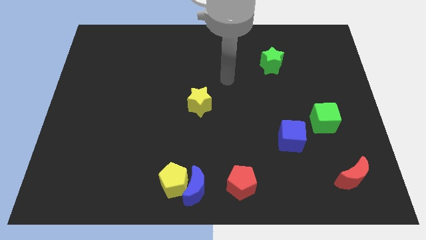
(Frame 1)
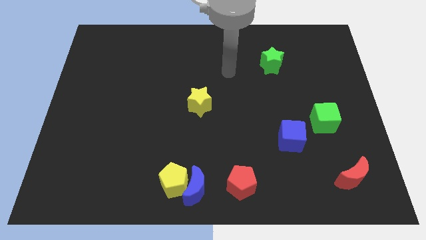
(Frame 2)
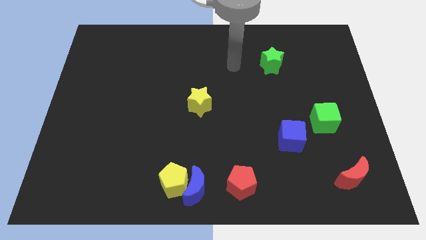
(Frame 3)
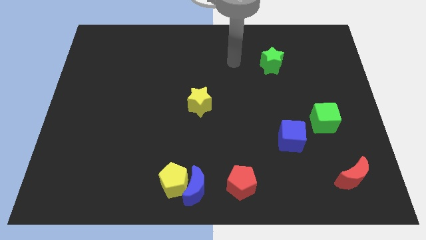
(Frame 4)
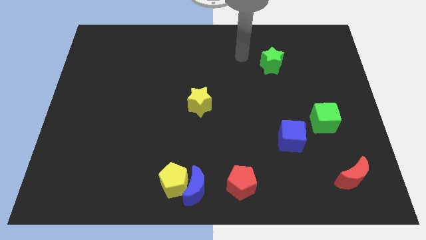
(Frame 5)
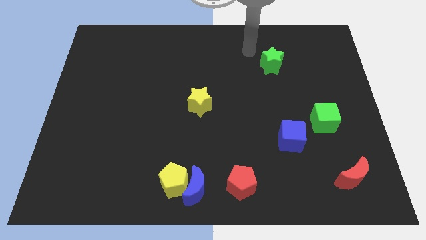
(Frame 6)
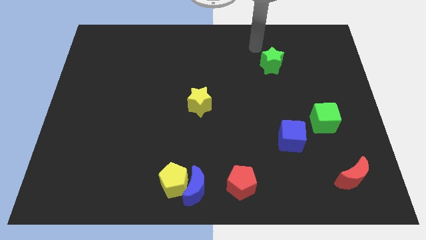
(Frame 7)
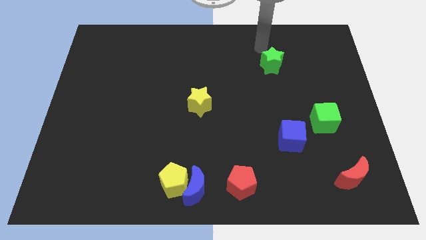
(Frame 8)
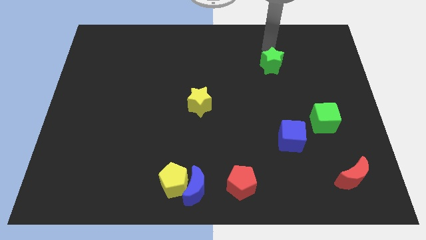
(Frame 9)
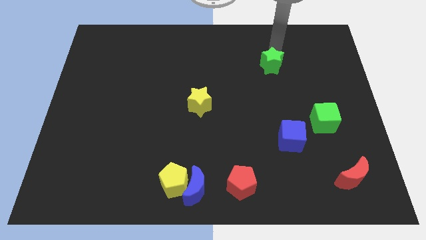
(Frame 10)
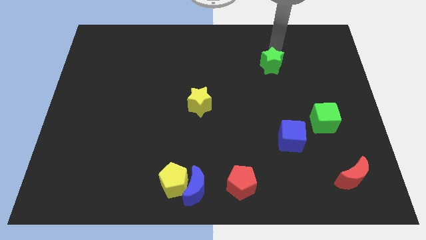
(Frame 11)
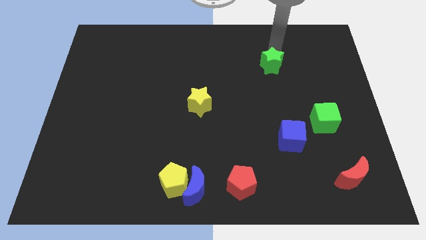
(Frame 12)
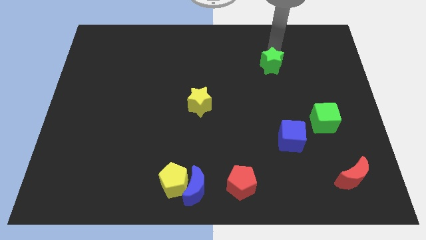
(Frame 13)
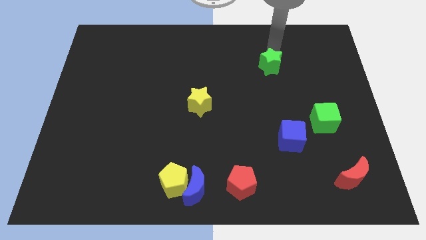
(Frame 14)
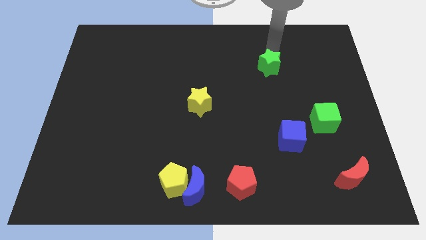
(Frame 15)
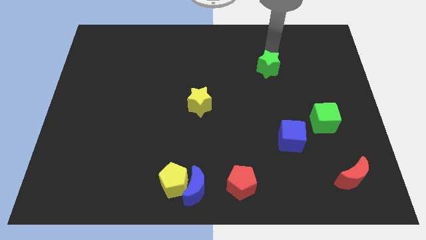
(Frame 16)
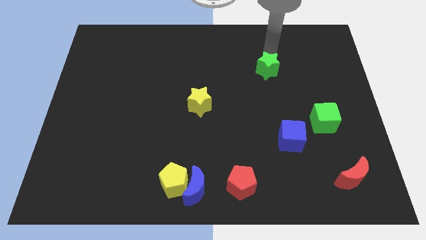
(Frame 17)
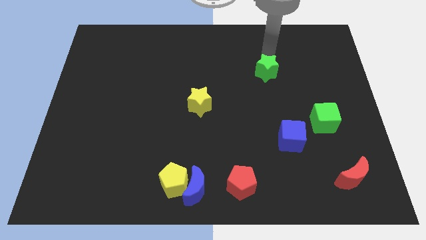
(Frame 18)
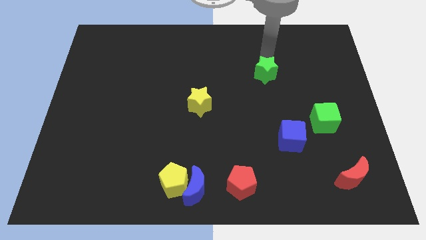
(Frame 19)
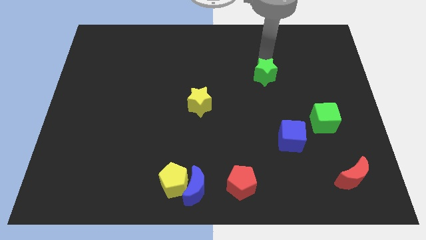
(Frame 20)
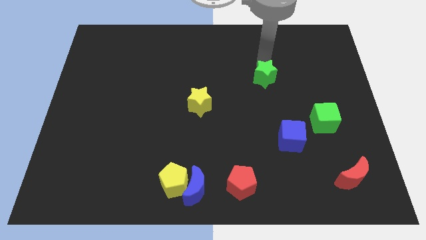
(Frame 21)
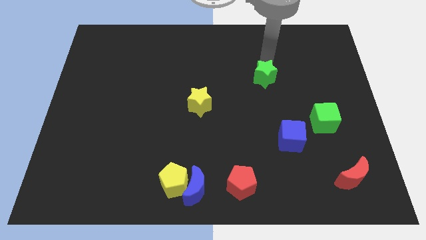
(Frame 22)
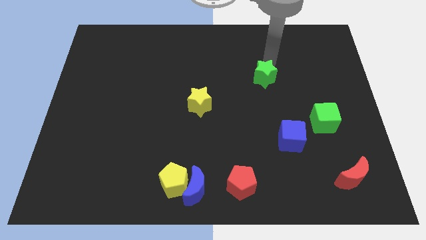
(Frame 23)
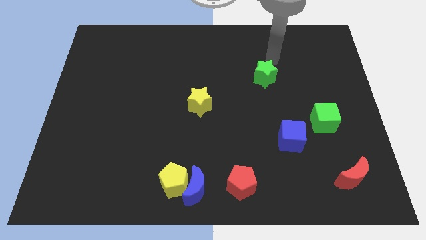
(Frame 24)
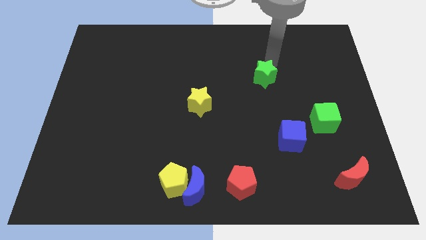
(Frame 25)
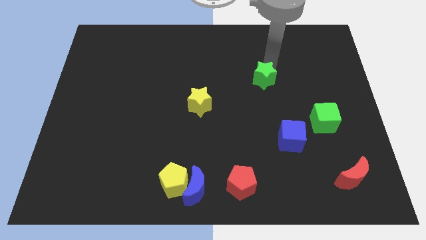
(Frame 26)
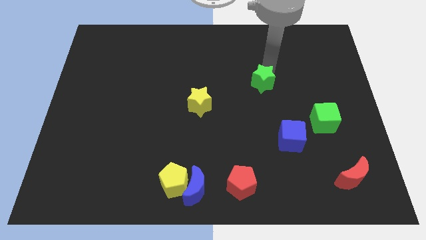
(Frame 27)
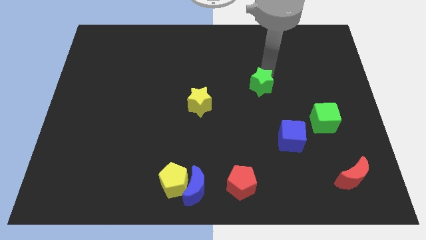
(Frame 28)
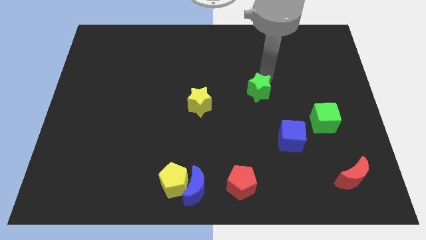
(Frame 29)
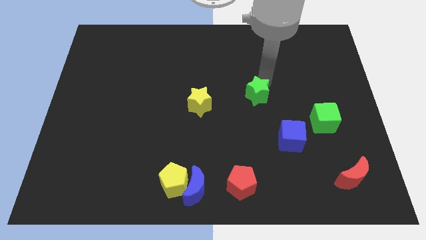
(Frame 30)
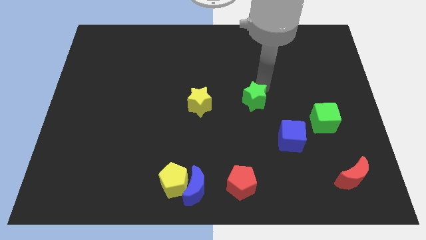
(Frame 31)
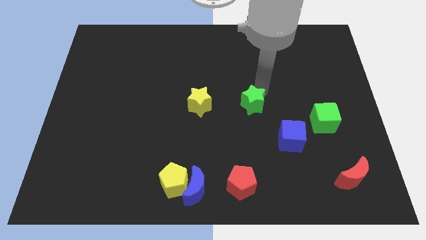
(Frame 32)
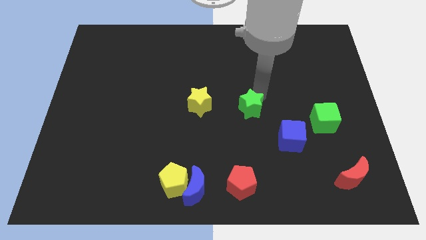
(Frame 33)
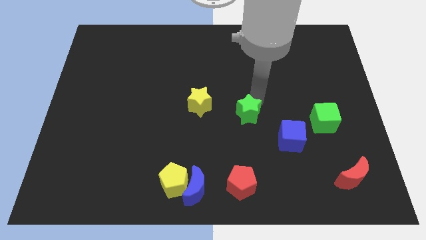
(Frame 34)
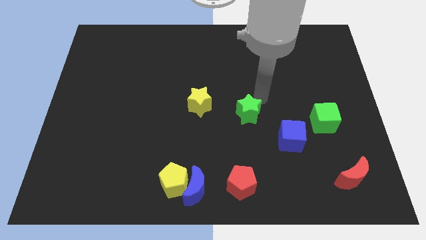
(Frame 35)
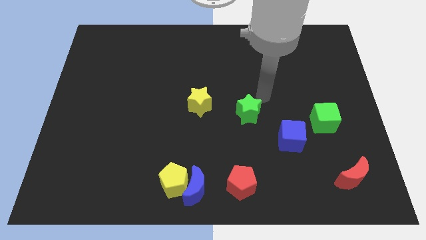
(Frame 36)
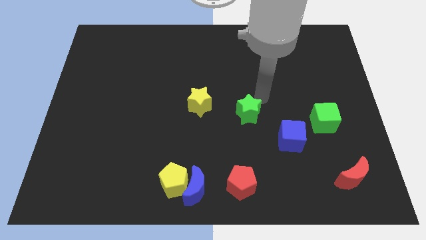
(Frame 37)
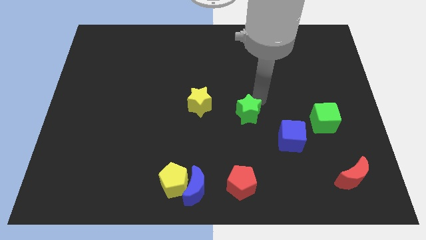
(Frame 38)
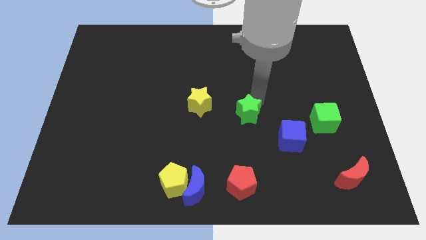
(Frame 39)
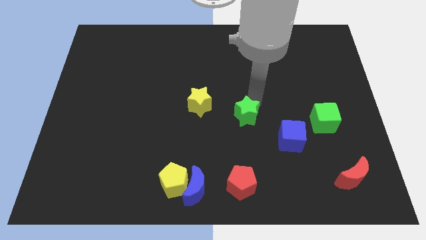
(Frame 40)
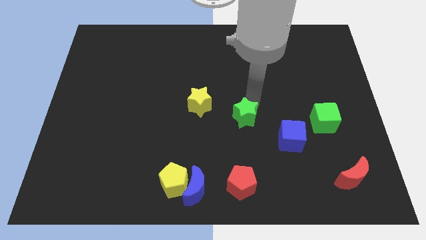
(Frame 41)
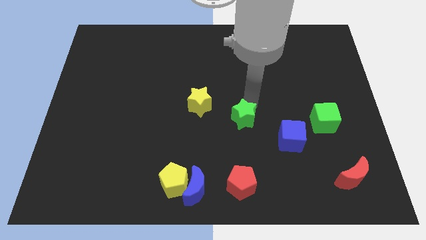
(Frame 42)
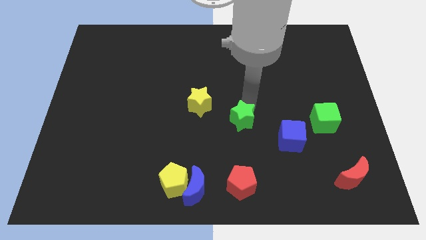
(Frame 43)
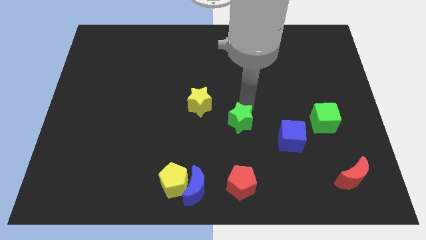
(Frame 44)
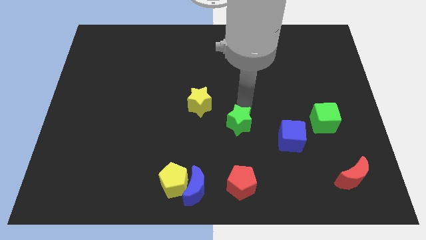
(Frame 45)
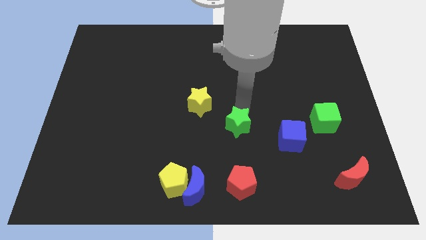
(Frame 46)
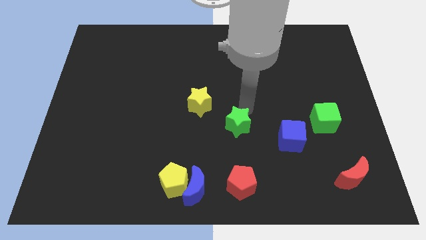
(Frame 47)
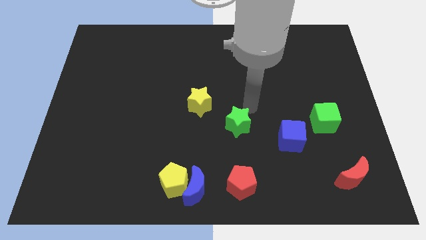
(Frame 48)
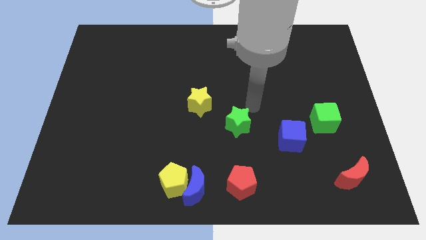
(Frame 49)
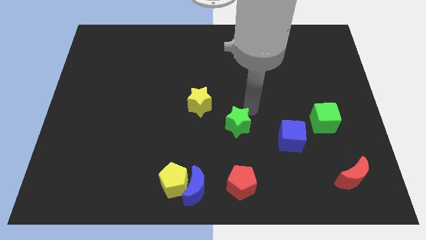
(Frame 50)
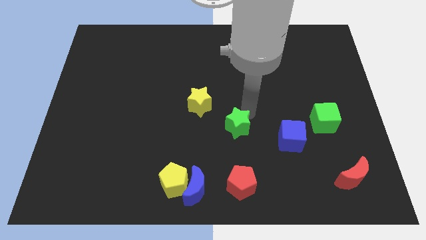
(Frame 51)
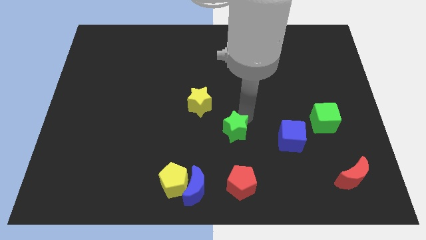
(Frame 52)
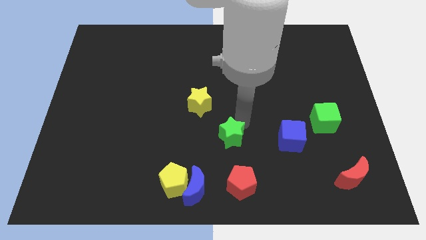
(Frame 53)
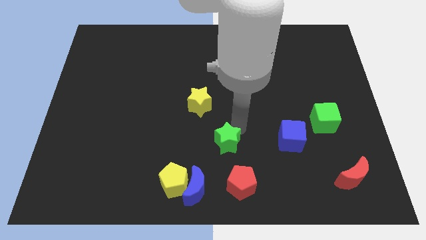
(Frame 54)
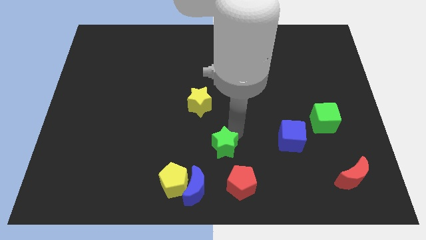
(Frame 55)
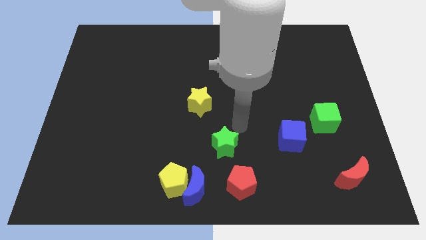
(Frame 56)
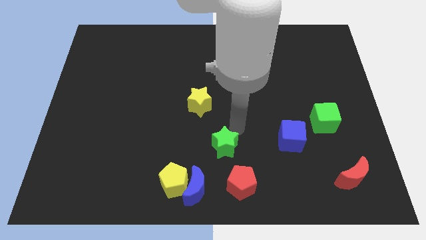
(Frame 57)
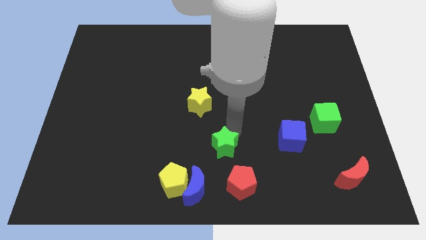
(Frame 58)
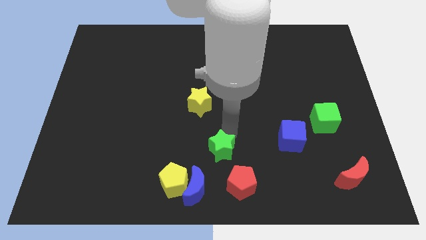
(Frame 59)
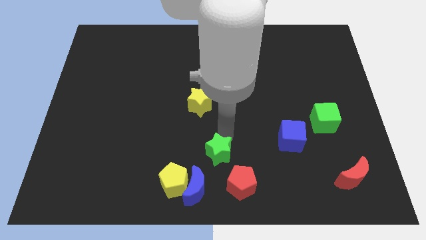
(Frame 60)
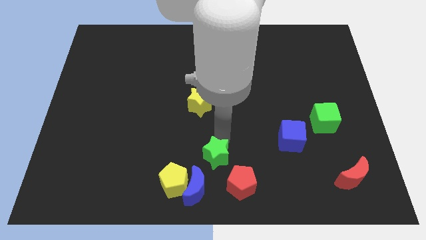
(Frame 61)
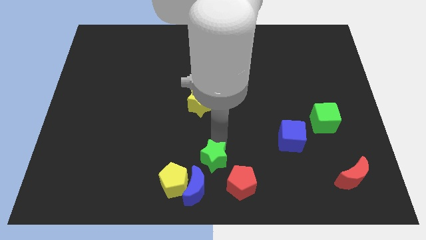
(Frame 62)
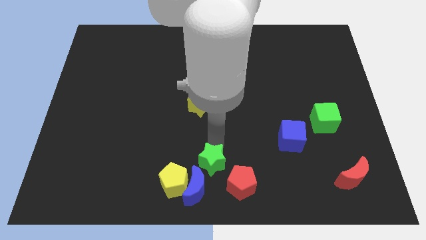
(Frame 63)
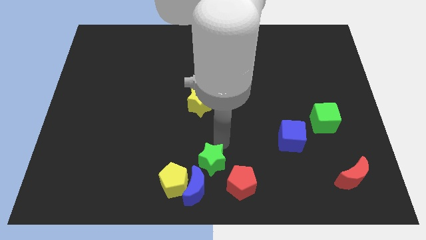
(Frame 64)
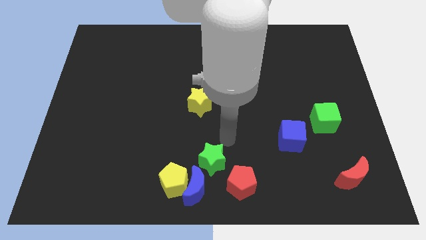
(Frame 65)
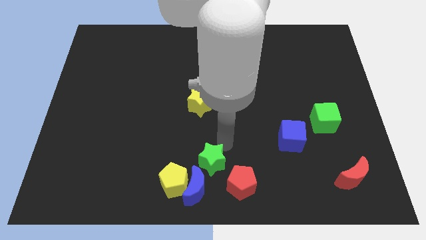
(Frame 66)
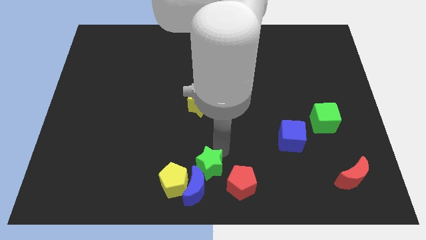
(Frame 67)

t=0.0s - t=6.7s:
put the green star close to the blue moon

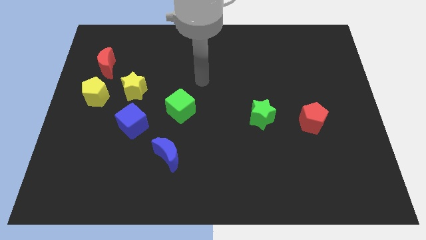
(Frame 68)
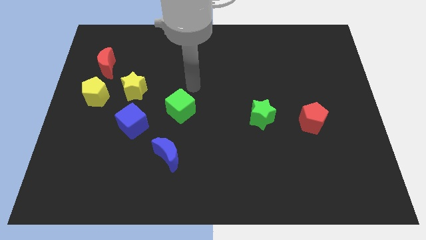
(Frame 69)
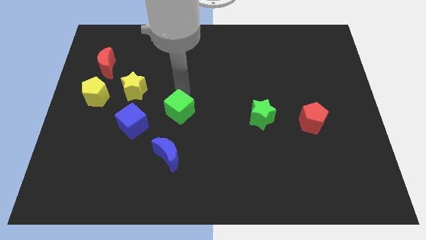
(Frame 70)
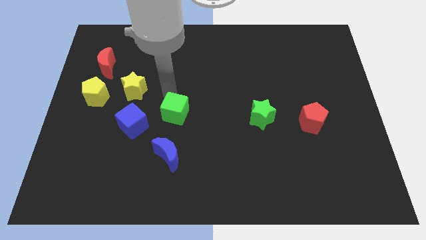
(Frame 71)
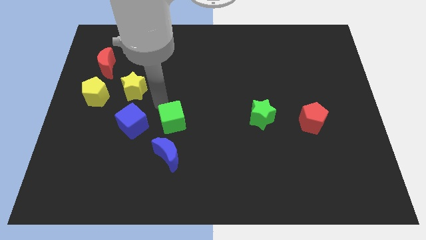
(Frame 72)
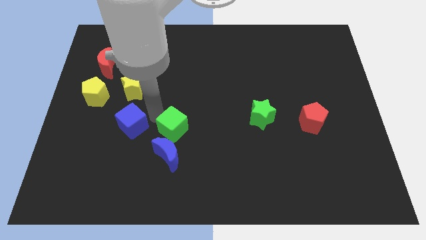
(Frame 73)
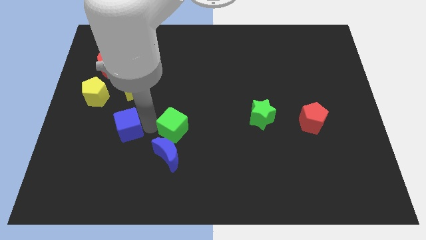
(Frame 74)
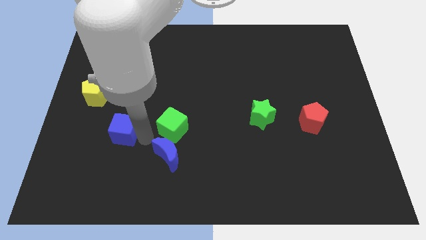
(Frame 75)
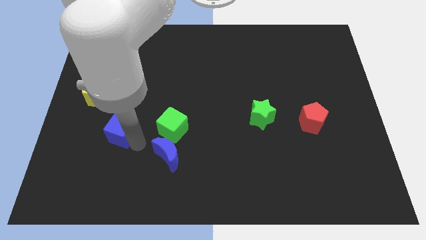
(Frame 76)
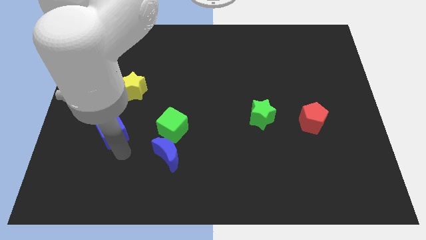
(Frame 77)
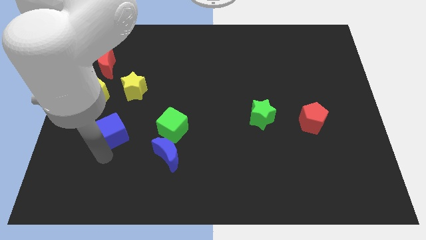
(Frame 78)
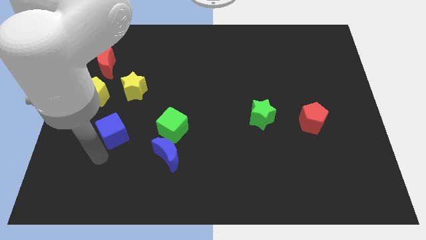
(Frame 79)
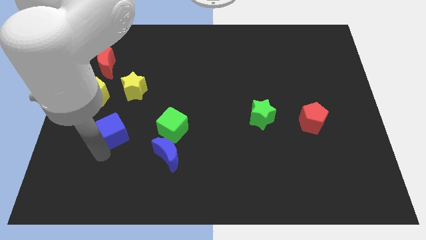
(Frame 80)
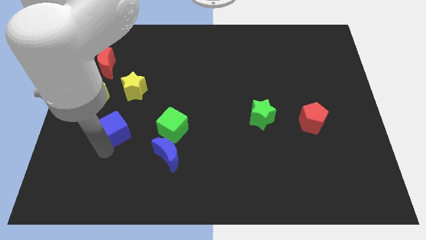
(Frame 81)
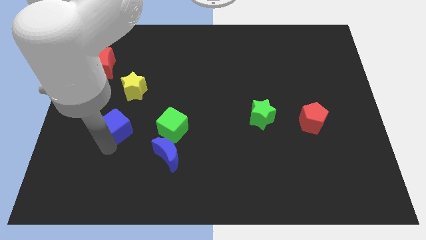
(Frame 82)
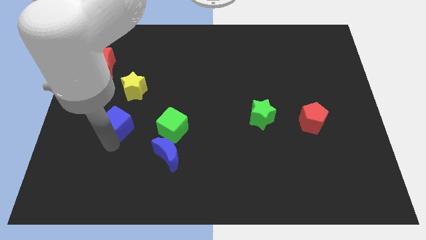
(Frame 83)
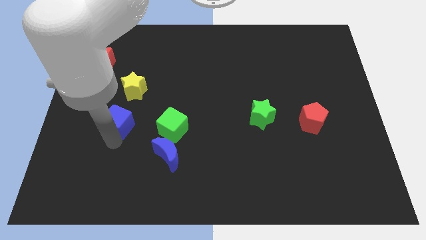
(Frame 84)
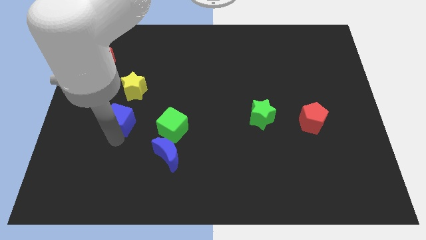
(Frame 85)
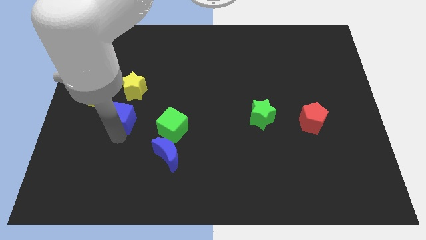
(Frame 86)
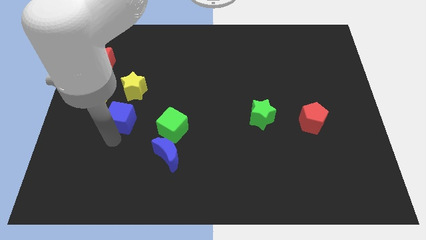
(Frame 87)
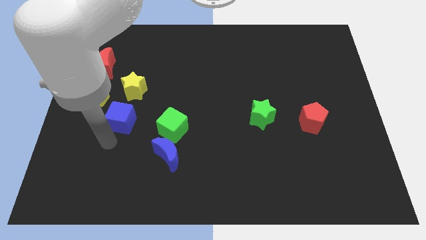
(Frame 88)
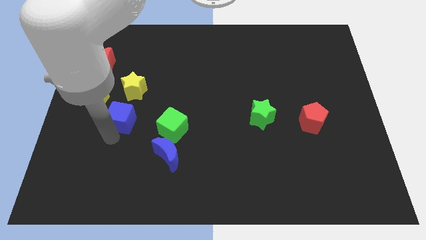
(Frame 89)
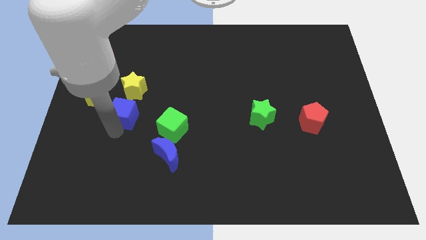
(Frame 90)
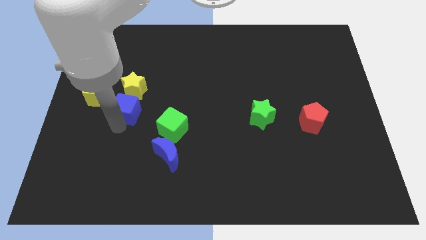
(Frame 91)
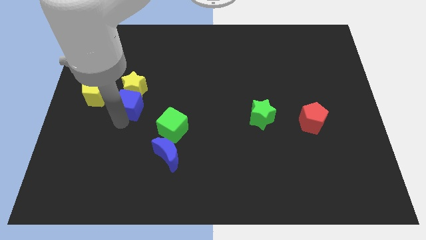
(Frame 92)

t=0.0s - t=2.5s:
slide the blue cube to the yellow star
